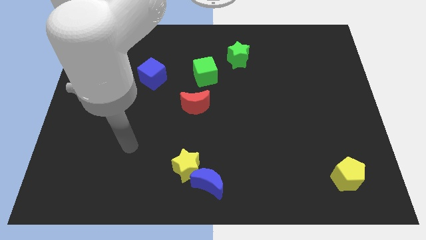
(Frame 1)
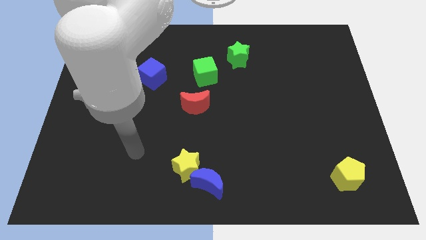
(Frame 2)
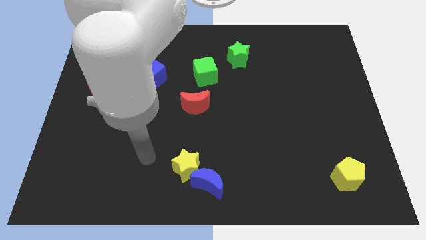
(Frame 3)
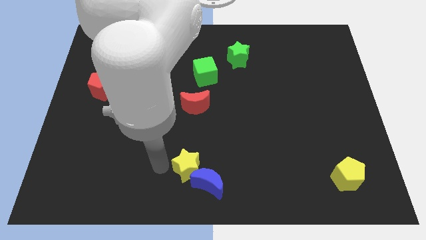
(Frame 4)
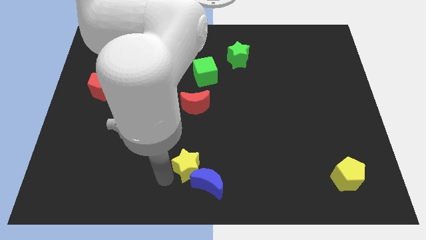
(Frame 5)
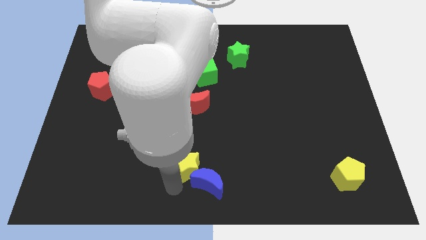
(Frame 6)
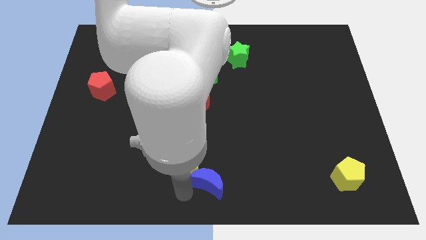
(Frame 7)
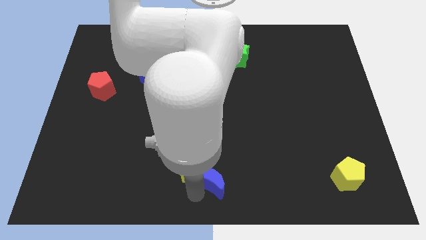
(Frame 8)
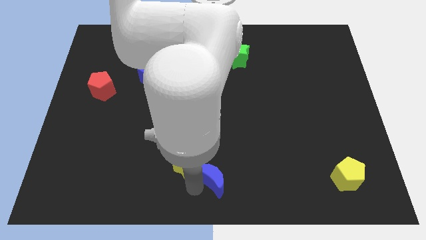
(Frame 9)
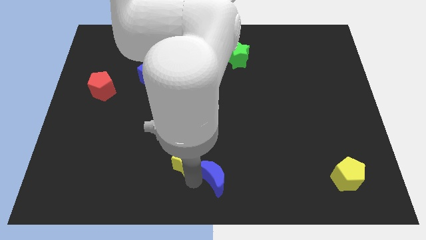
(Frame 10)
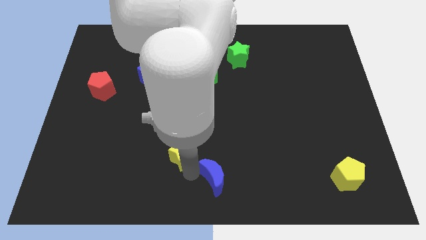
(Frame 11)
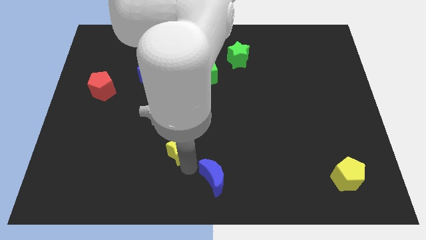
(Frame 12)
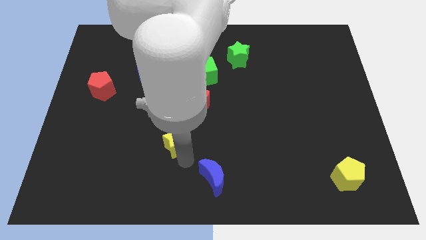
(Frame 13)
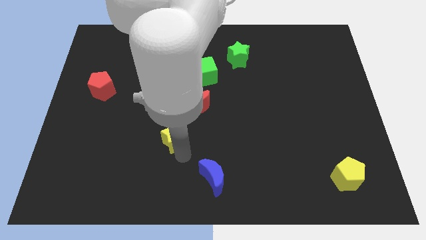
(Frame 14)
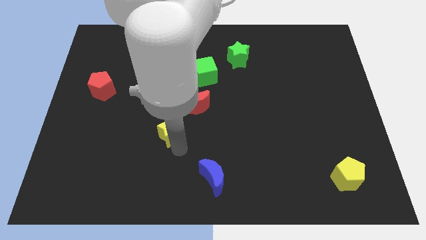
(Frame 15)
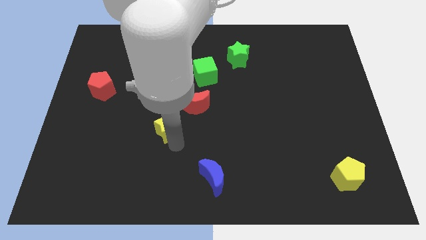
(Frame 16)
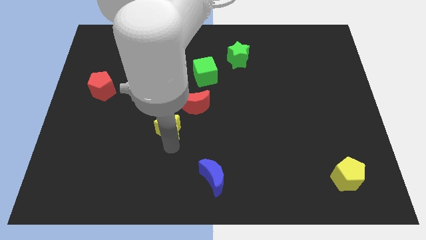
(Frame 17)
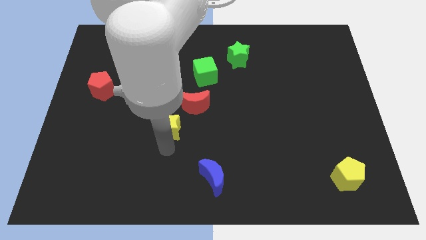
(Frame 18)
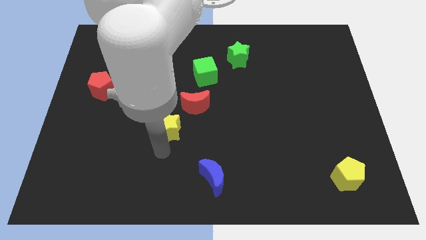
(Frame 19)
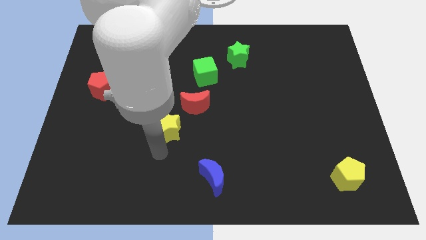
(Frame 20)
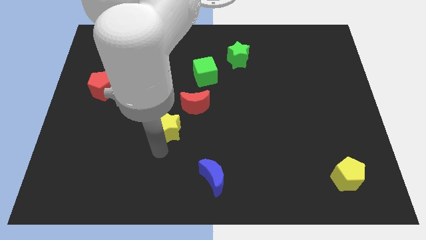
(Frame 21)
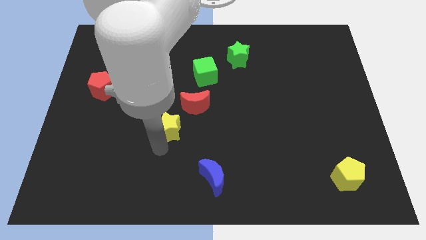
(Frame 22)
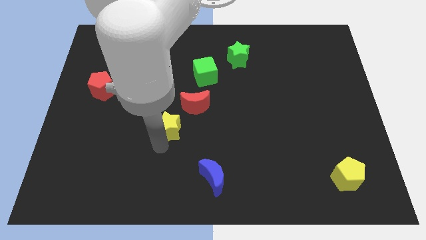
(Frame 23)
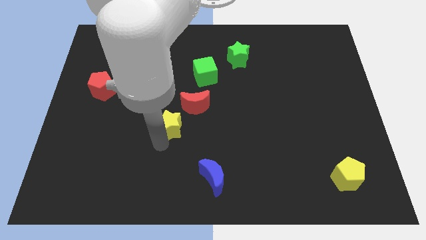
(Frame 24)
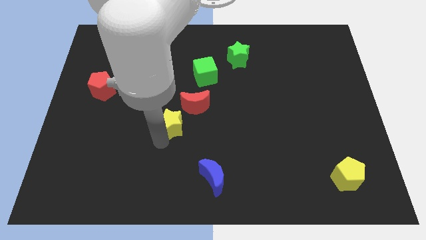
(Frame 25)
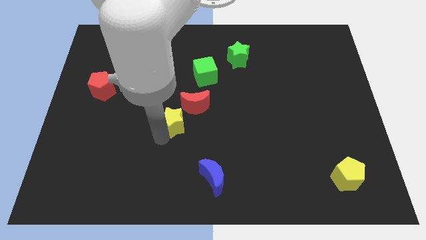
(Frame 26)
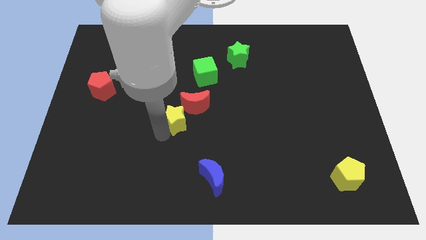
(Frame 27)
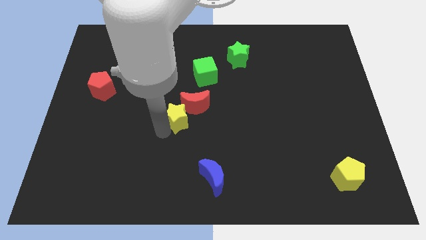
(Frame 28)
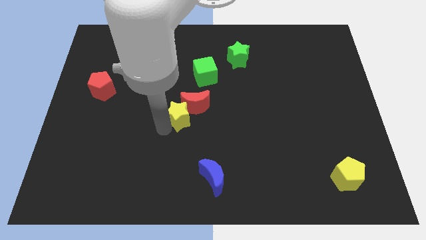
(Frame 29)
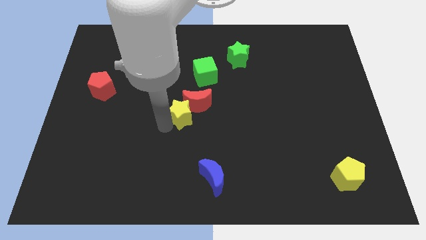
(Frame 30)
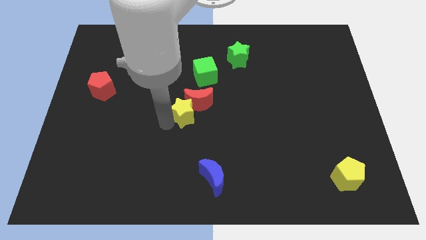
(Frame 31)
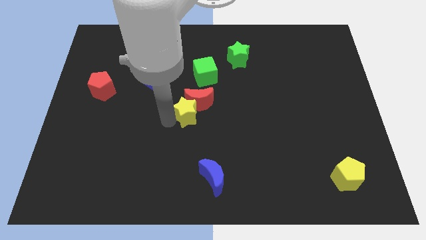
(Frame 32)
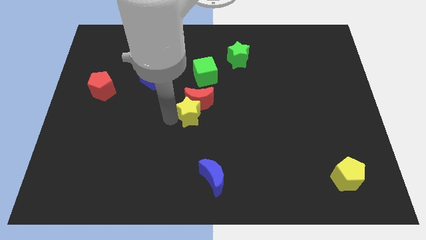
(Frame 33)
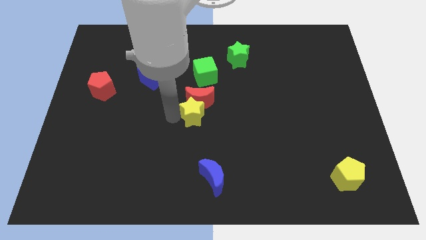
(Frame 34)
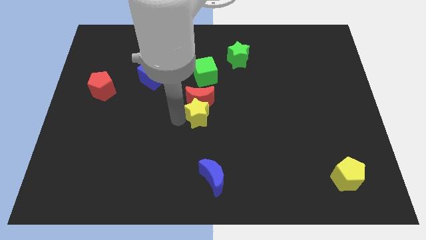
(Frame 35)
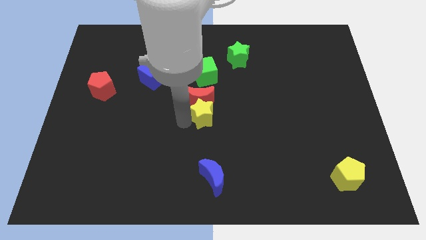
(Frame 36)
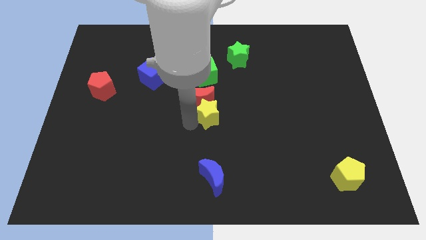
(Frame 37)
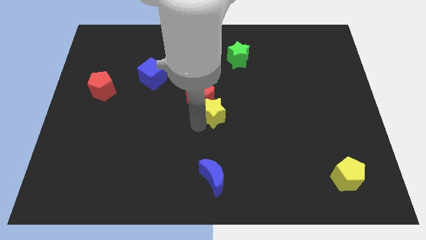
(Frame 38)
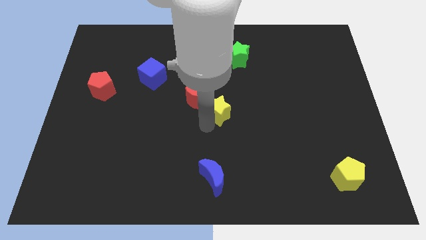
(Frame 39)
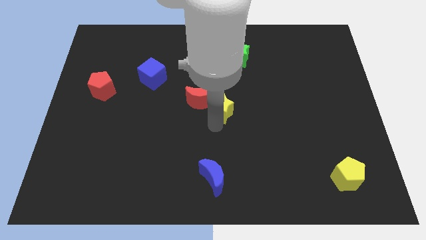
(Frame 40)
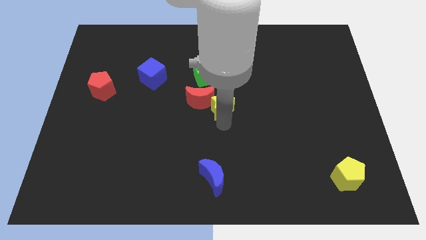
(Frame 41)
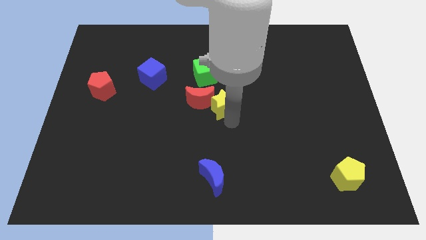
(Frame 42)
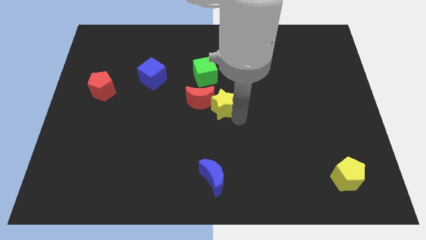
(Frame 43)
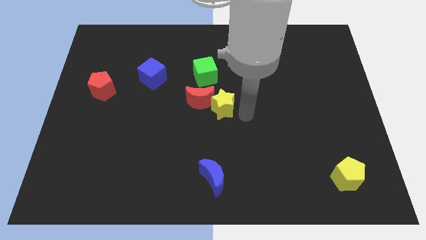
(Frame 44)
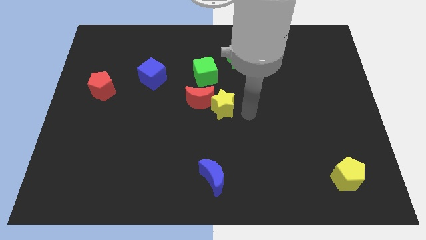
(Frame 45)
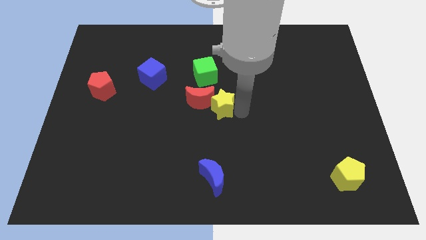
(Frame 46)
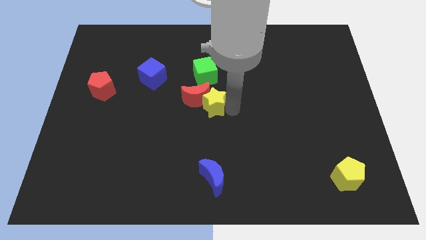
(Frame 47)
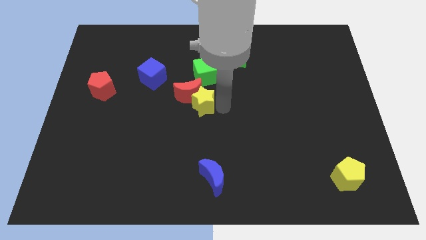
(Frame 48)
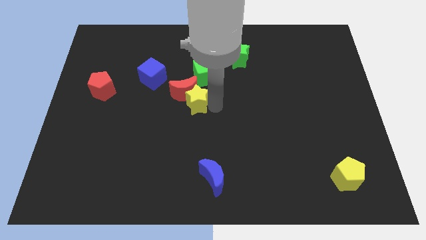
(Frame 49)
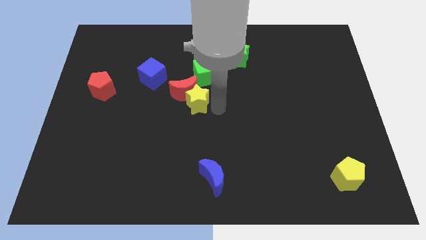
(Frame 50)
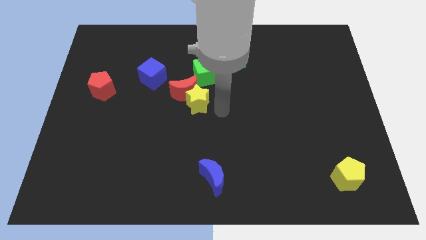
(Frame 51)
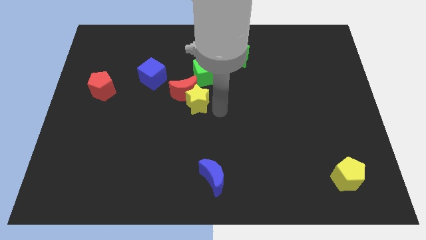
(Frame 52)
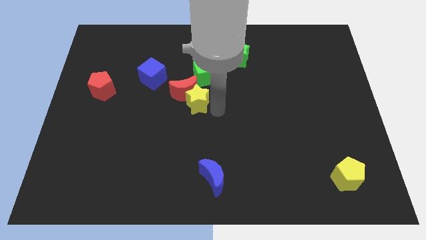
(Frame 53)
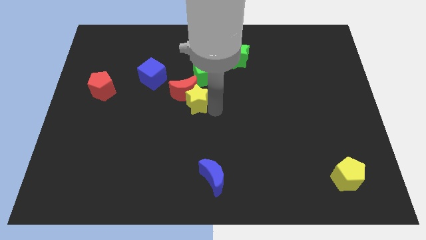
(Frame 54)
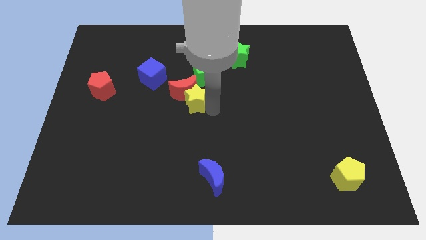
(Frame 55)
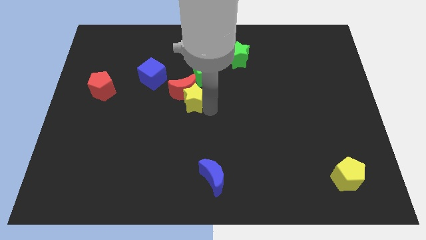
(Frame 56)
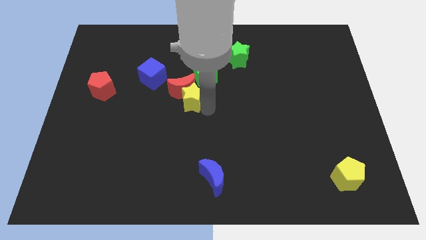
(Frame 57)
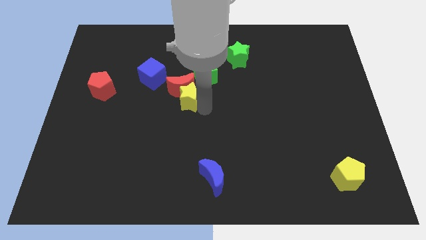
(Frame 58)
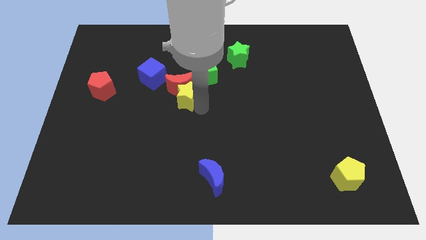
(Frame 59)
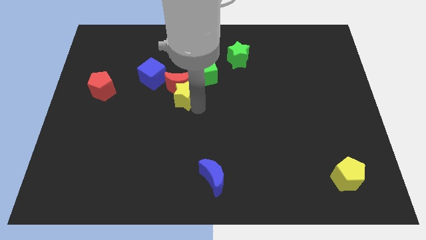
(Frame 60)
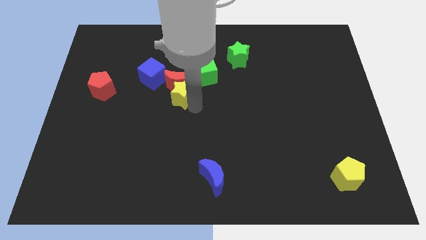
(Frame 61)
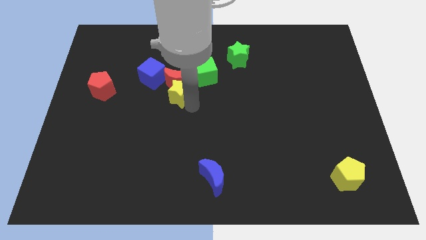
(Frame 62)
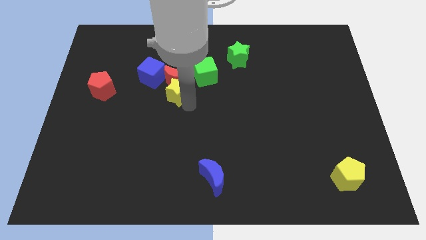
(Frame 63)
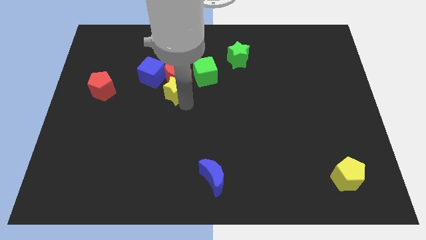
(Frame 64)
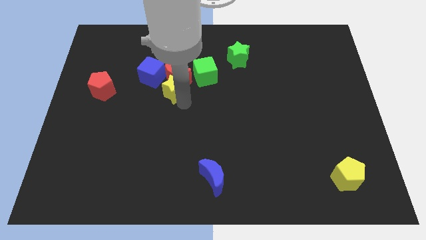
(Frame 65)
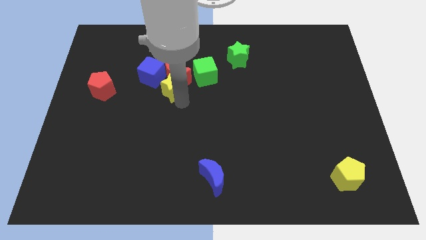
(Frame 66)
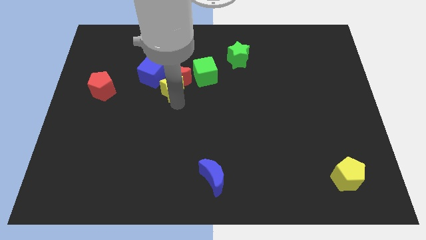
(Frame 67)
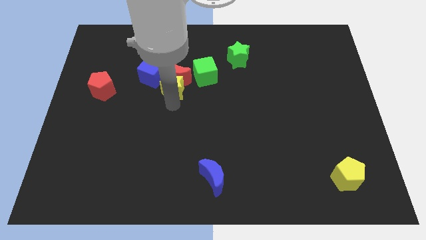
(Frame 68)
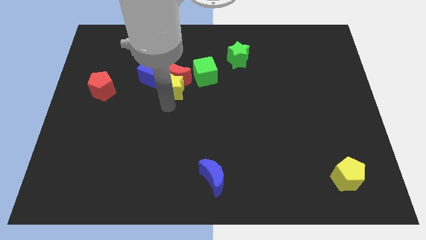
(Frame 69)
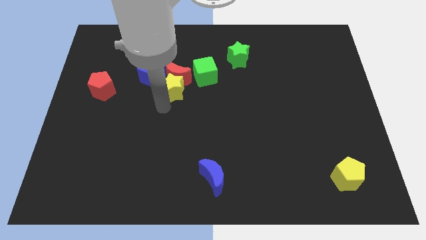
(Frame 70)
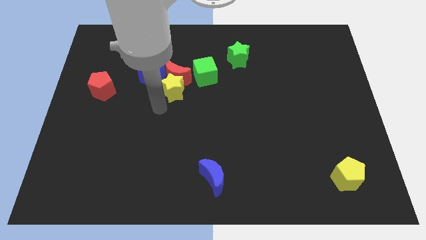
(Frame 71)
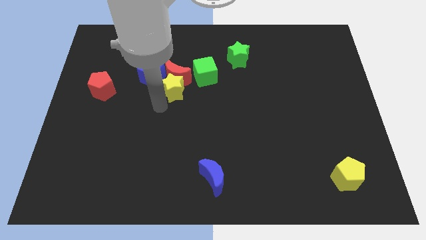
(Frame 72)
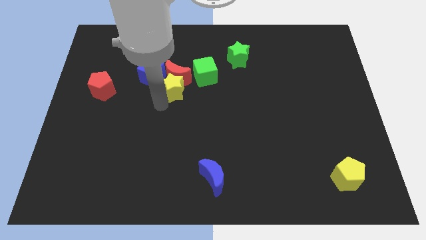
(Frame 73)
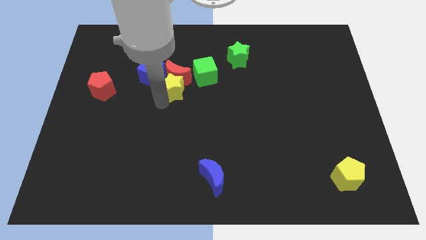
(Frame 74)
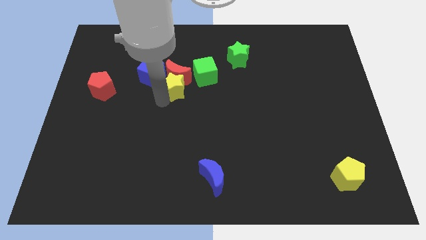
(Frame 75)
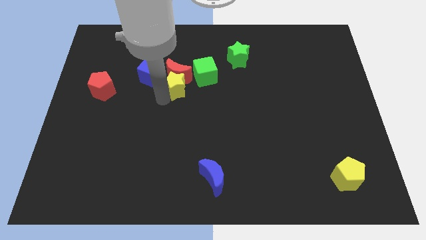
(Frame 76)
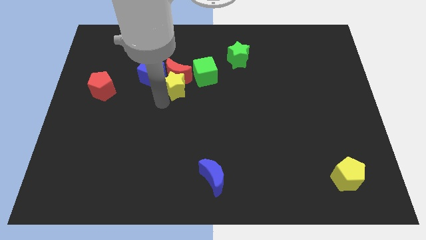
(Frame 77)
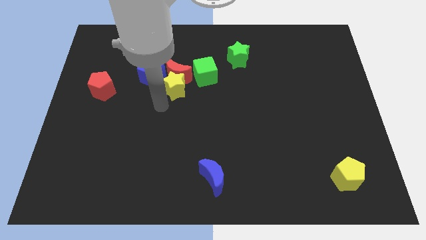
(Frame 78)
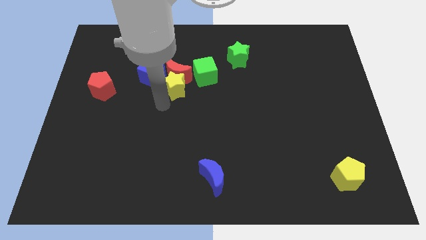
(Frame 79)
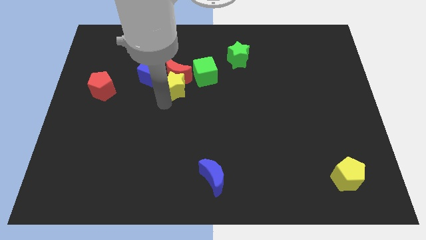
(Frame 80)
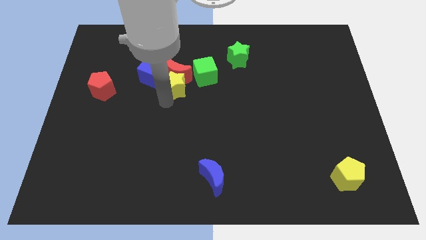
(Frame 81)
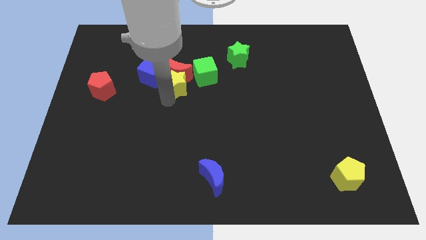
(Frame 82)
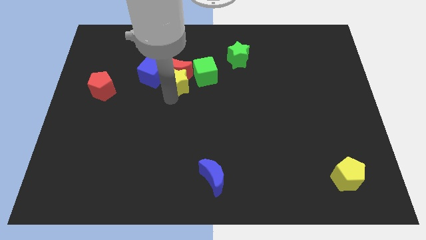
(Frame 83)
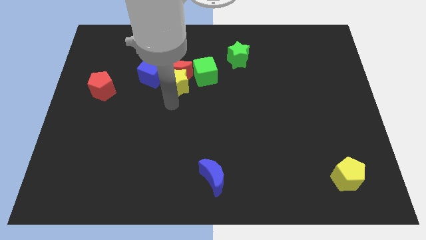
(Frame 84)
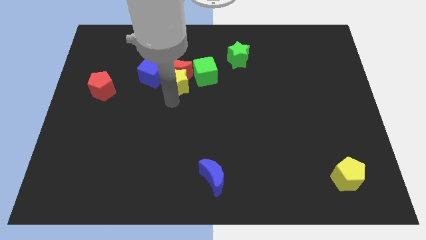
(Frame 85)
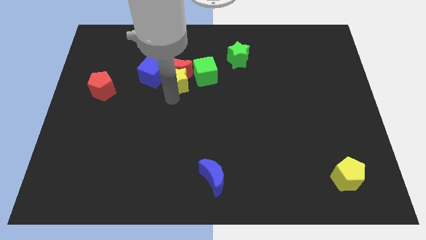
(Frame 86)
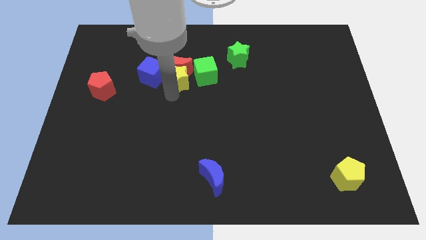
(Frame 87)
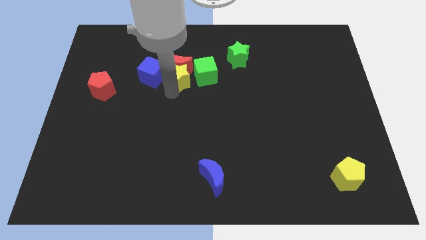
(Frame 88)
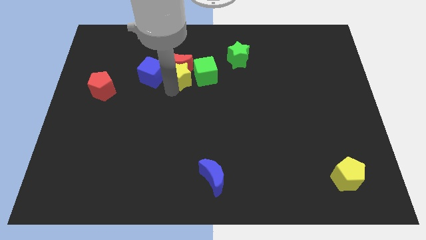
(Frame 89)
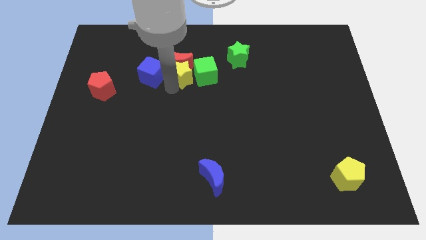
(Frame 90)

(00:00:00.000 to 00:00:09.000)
slide the yellow star to the top left side of the green cube
